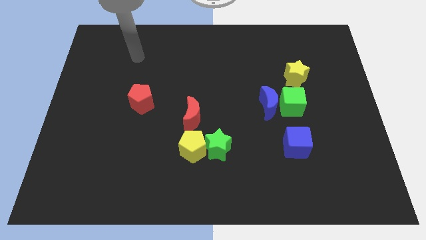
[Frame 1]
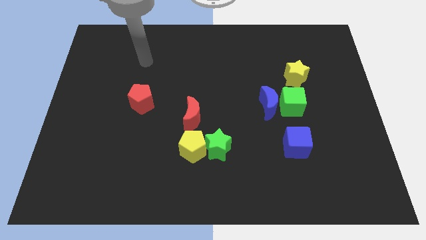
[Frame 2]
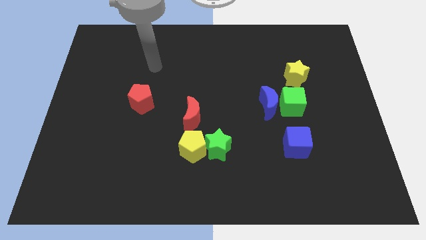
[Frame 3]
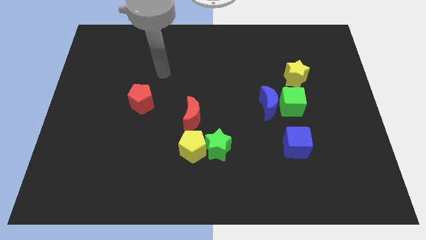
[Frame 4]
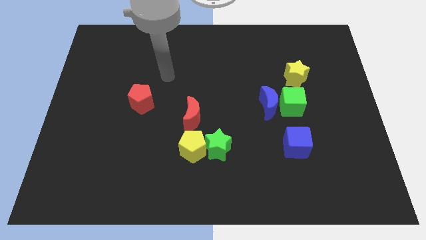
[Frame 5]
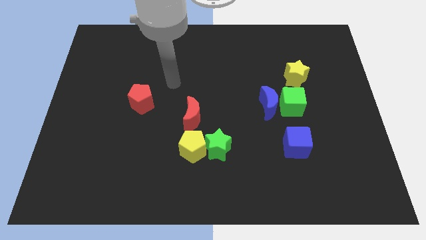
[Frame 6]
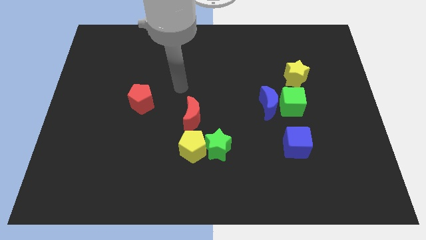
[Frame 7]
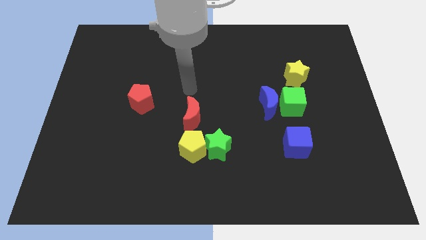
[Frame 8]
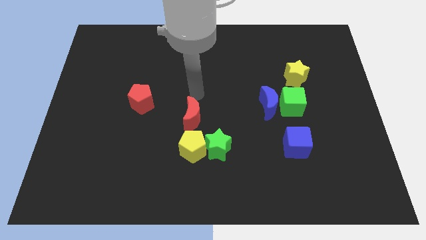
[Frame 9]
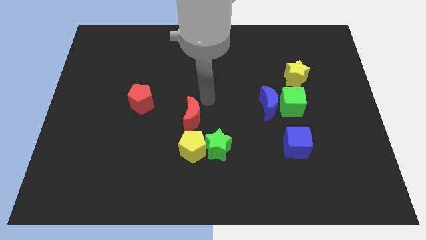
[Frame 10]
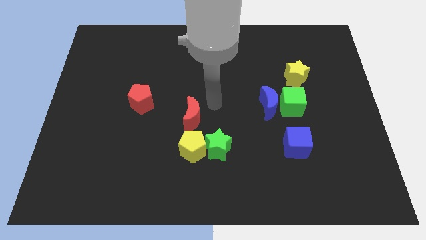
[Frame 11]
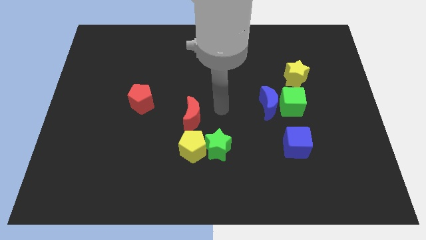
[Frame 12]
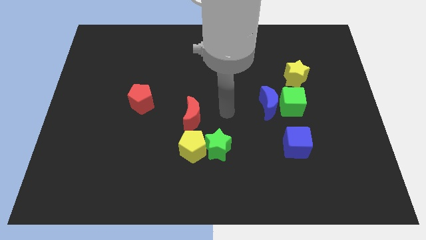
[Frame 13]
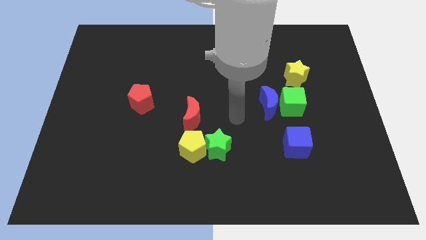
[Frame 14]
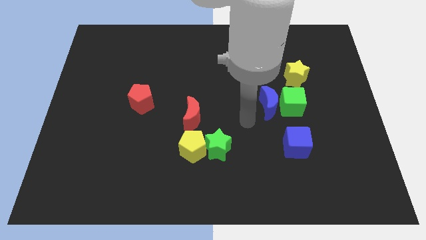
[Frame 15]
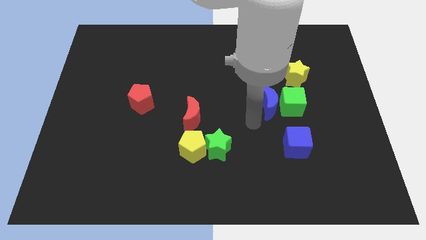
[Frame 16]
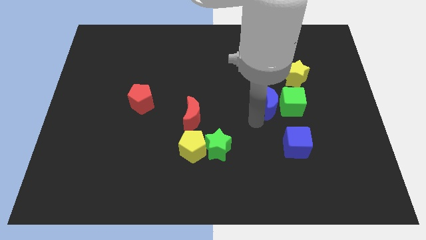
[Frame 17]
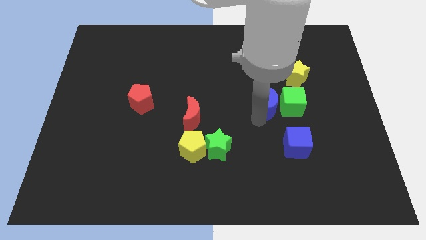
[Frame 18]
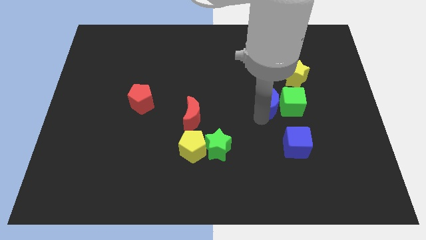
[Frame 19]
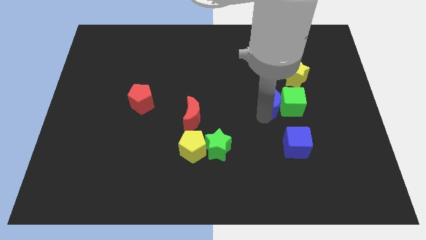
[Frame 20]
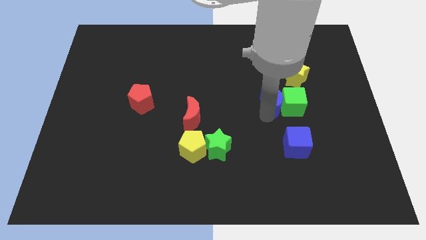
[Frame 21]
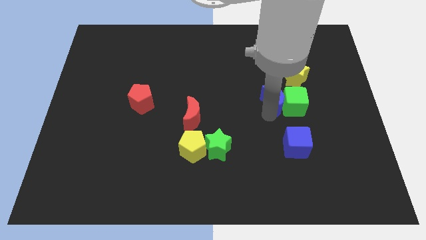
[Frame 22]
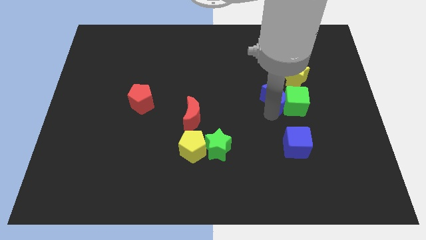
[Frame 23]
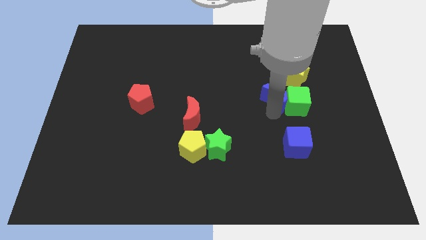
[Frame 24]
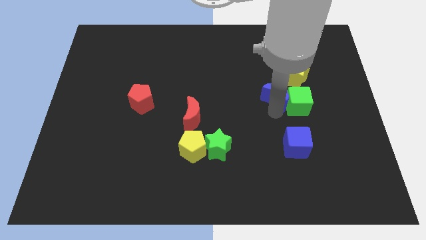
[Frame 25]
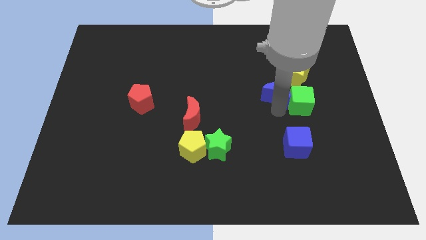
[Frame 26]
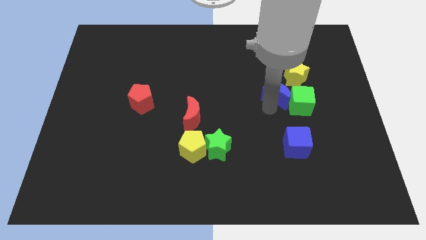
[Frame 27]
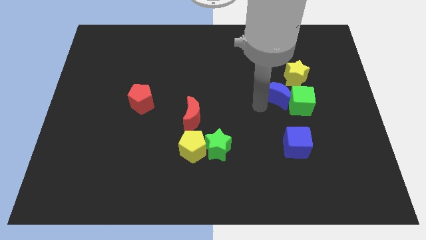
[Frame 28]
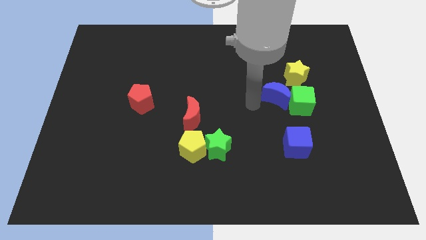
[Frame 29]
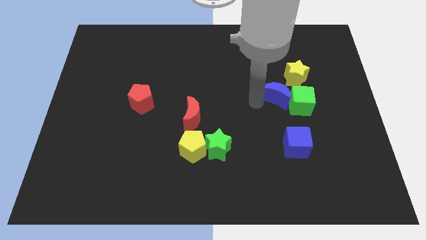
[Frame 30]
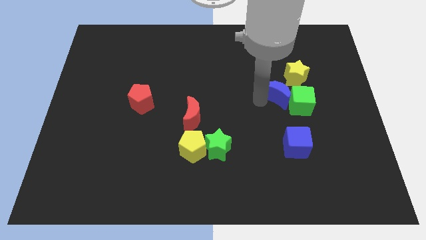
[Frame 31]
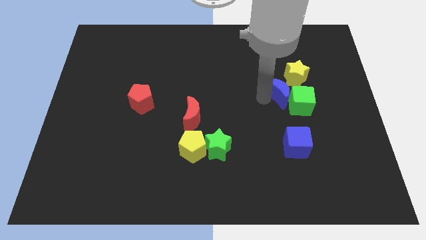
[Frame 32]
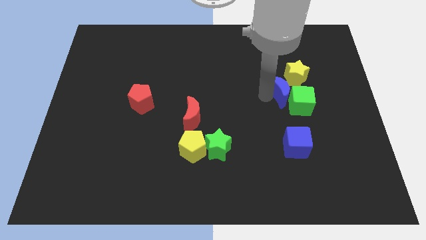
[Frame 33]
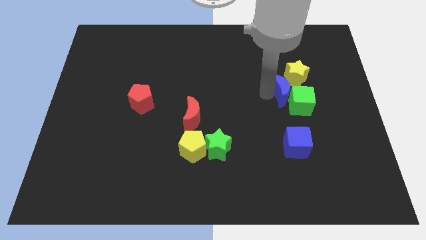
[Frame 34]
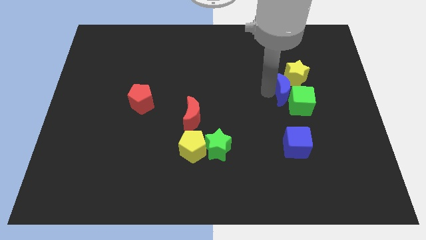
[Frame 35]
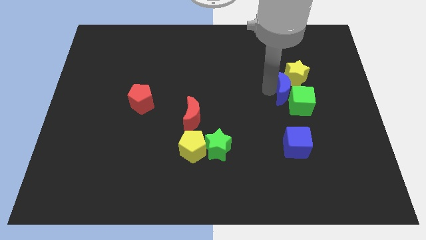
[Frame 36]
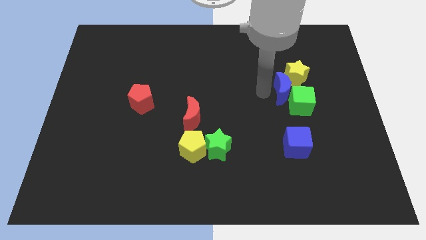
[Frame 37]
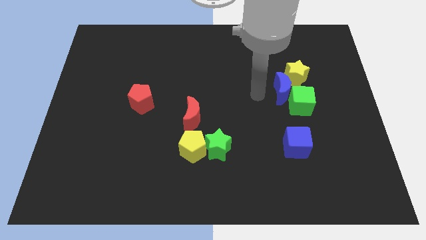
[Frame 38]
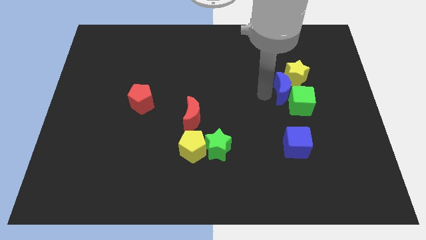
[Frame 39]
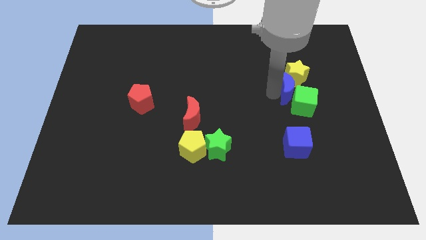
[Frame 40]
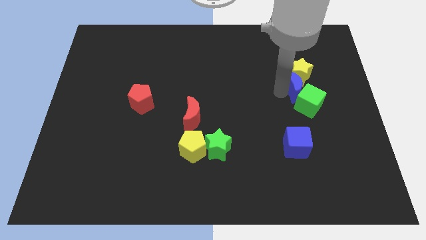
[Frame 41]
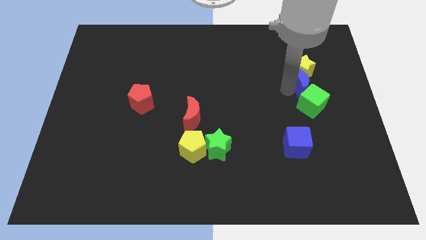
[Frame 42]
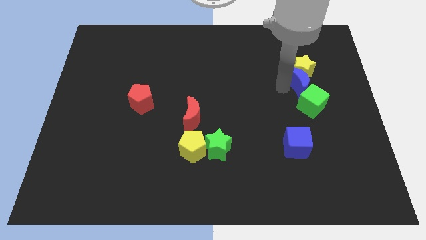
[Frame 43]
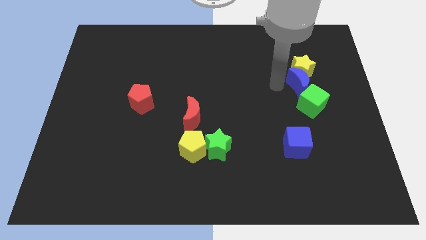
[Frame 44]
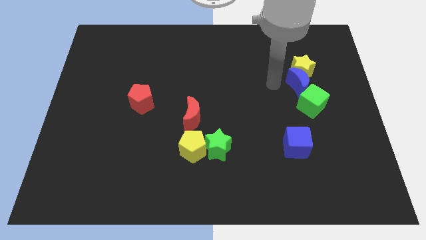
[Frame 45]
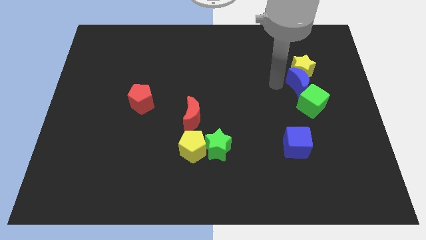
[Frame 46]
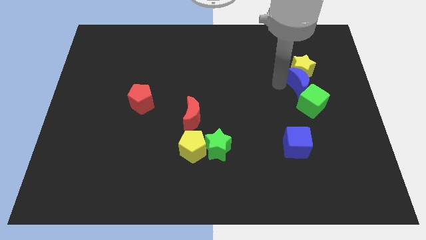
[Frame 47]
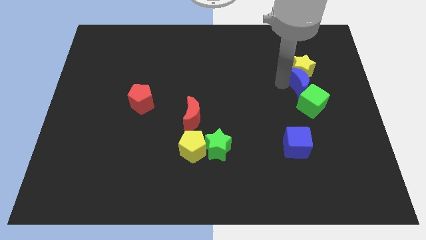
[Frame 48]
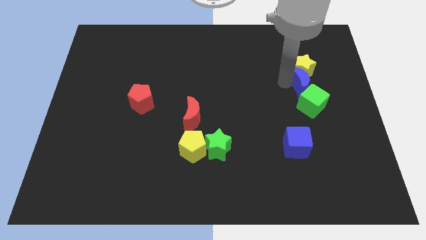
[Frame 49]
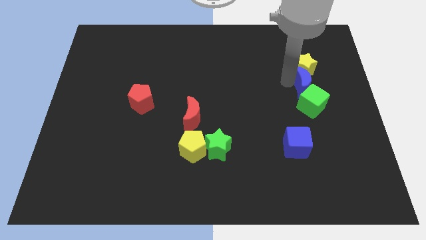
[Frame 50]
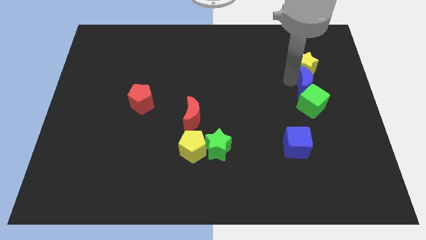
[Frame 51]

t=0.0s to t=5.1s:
push the blue moon to the top right side of the green cube

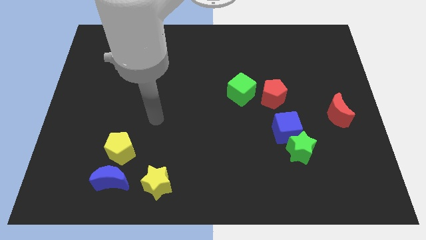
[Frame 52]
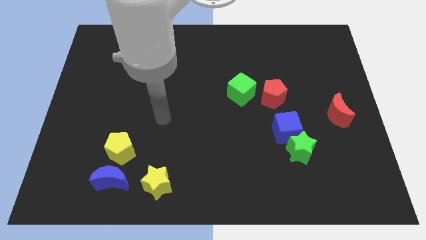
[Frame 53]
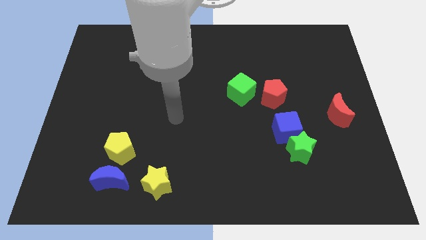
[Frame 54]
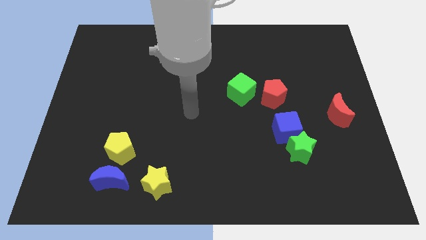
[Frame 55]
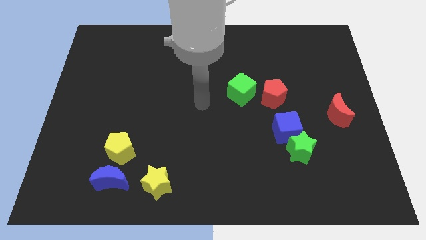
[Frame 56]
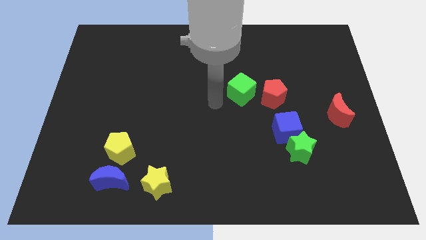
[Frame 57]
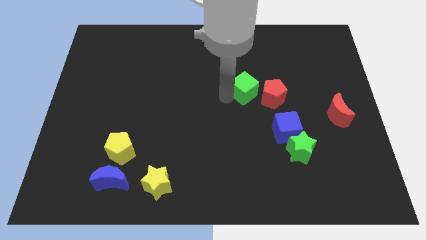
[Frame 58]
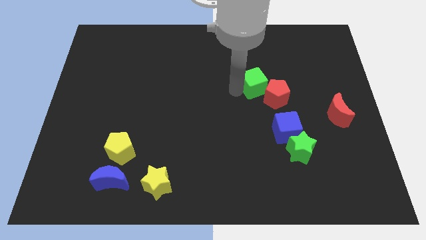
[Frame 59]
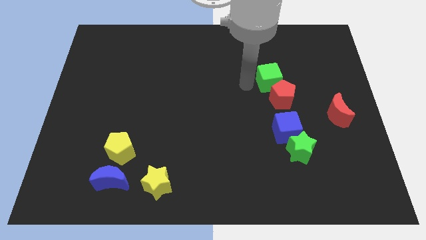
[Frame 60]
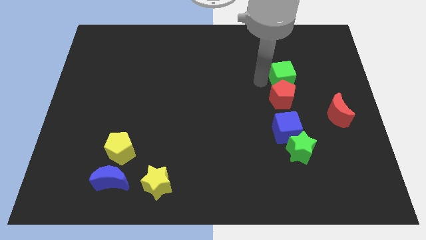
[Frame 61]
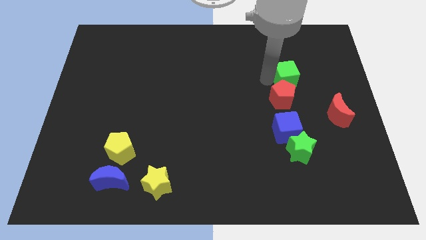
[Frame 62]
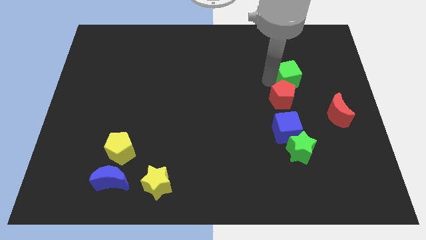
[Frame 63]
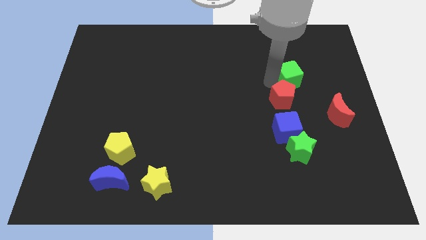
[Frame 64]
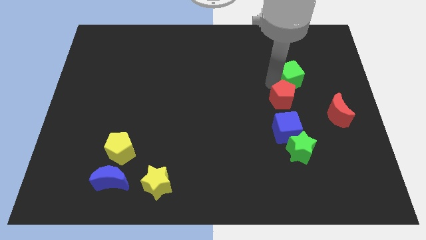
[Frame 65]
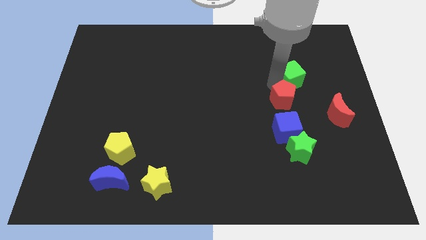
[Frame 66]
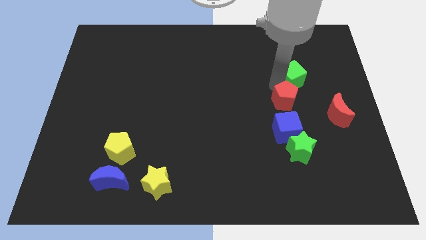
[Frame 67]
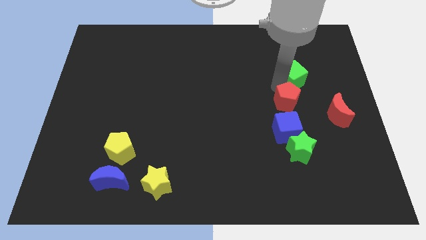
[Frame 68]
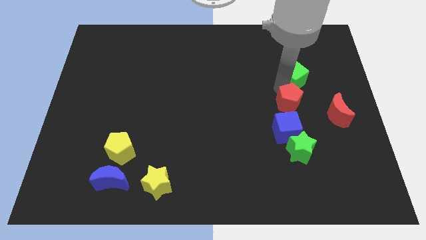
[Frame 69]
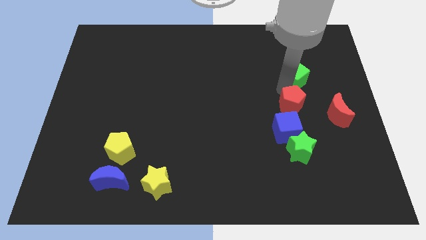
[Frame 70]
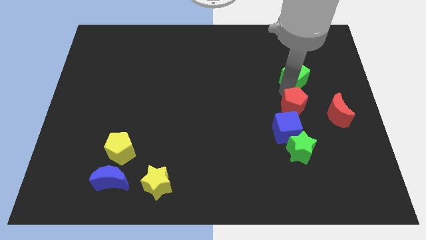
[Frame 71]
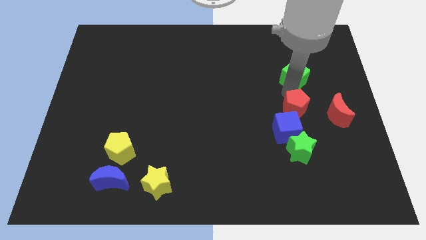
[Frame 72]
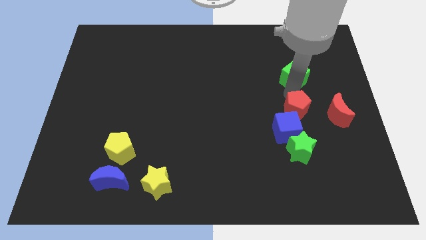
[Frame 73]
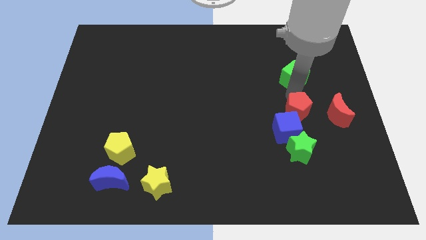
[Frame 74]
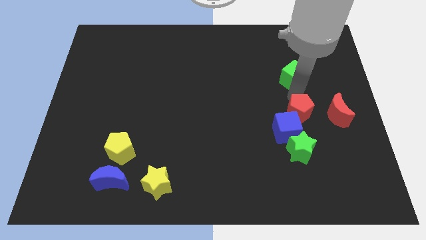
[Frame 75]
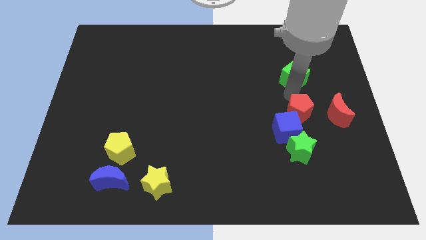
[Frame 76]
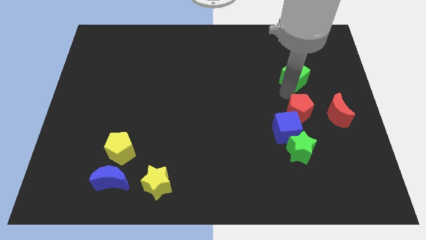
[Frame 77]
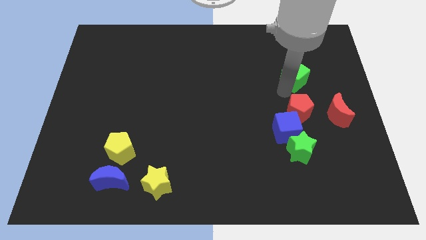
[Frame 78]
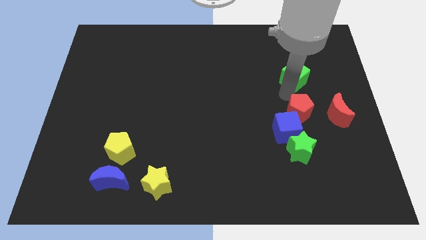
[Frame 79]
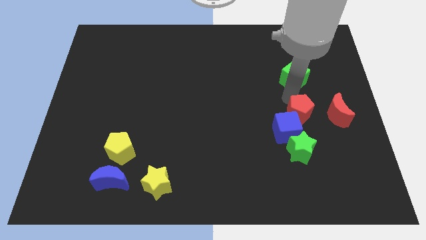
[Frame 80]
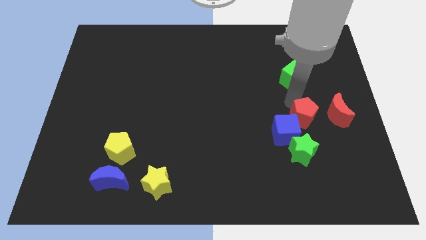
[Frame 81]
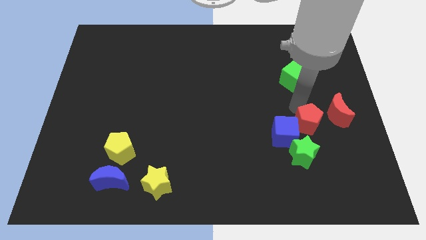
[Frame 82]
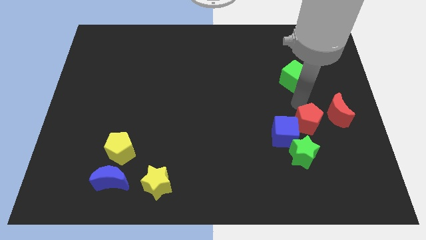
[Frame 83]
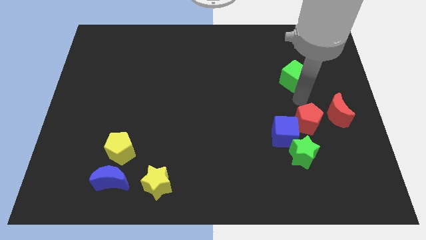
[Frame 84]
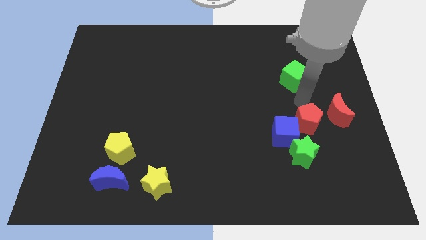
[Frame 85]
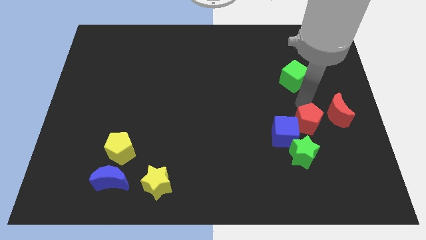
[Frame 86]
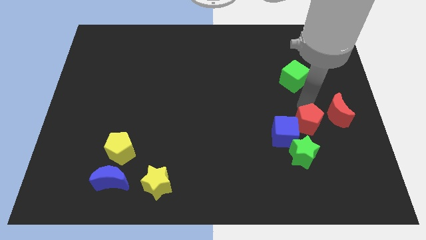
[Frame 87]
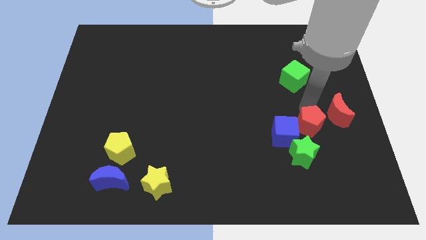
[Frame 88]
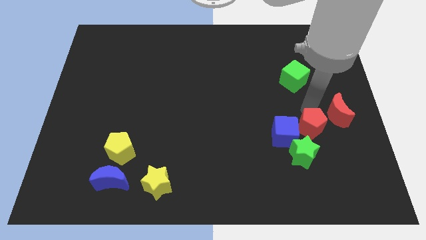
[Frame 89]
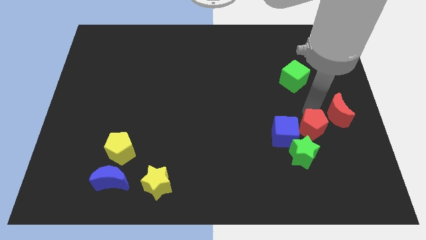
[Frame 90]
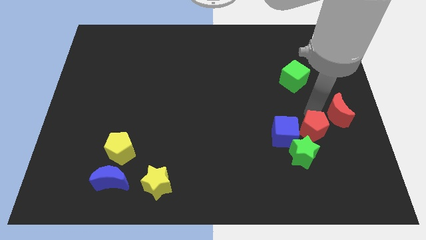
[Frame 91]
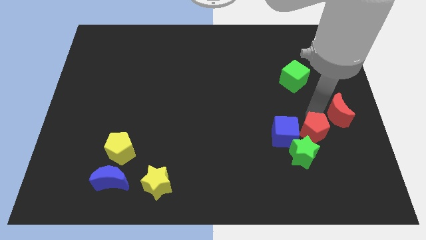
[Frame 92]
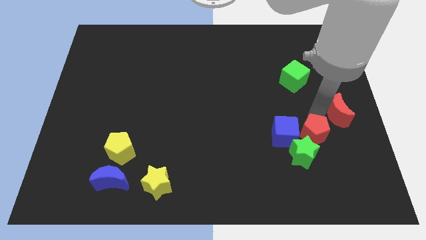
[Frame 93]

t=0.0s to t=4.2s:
slide the red pentagon to the bottom right of the blue cube
